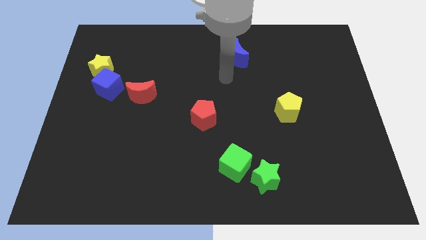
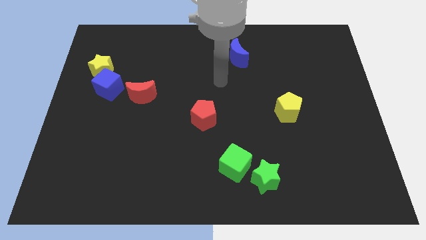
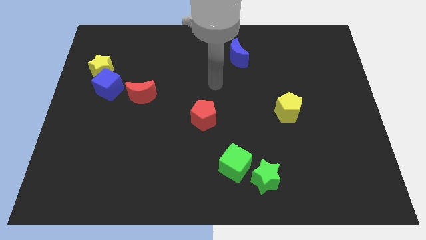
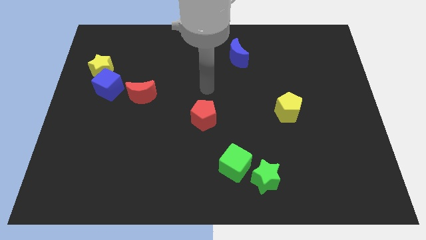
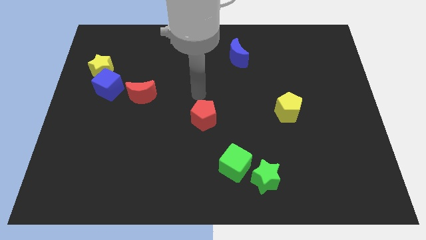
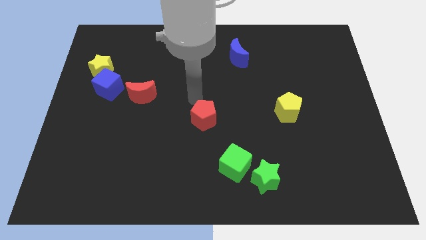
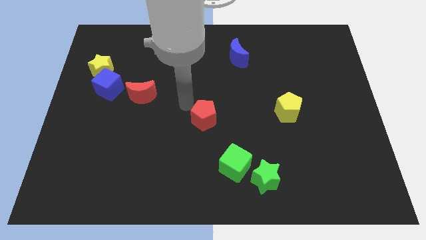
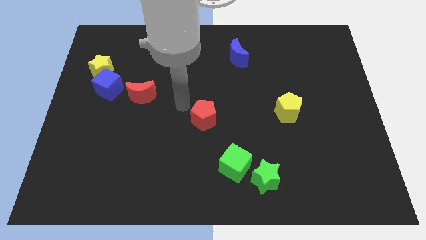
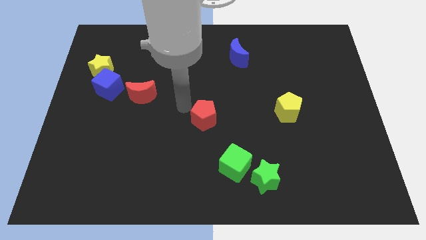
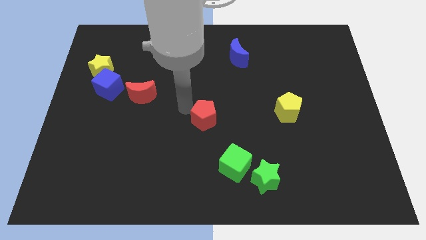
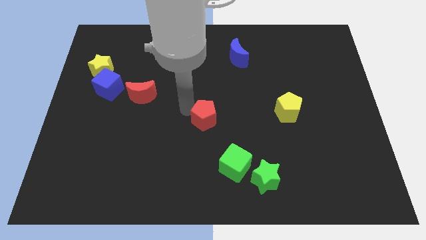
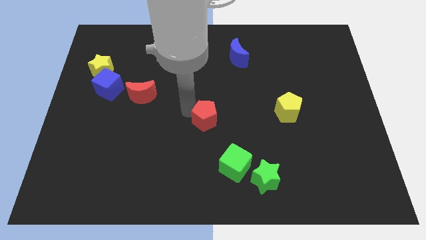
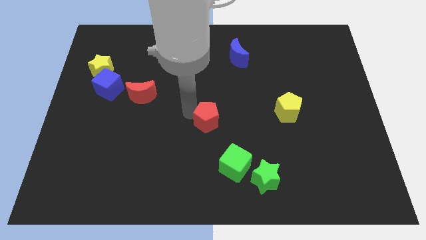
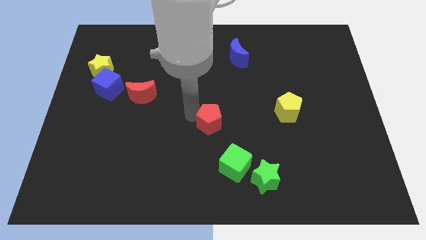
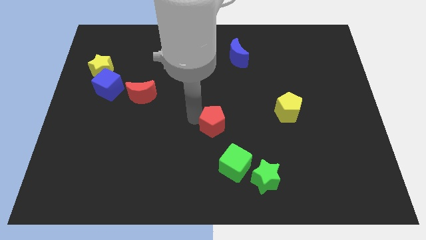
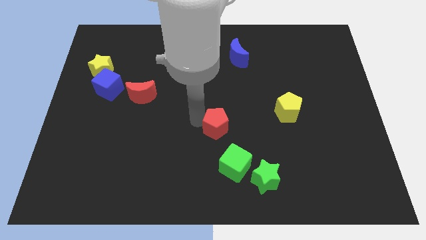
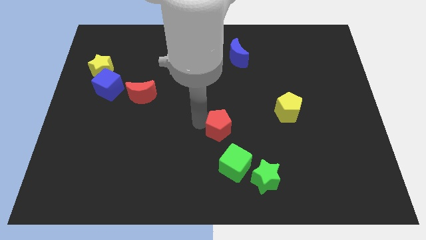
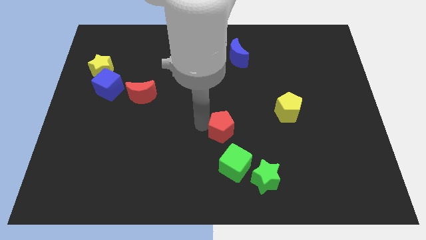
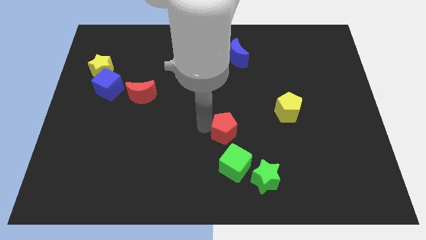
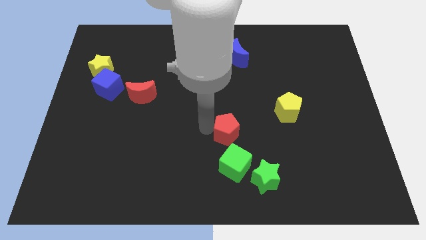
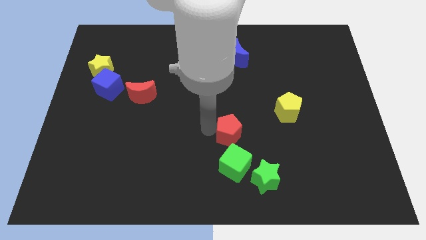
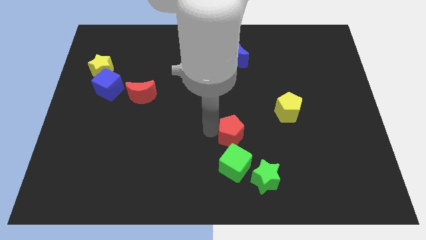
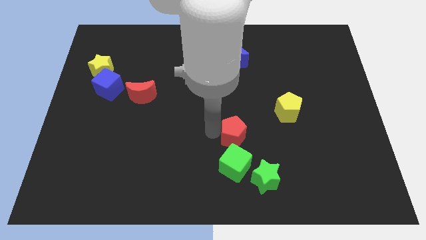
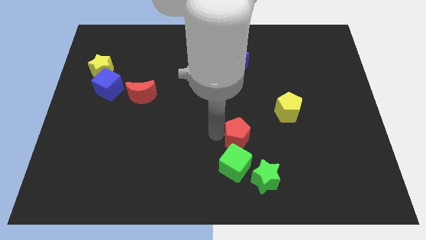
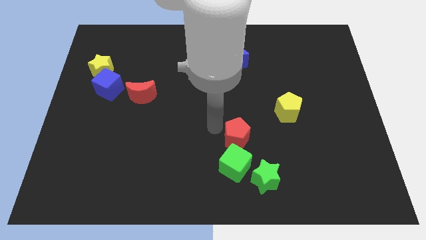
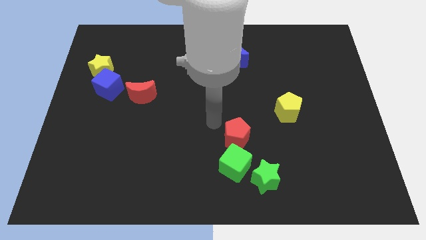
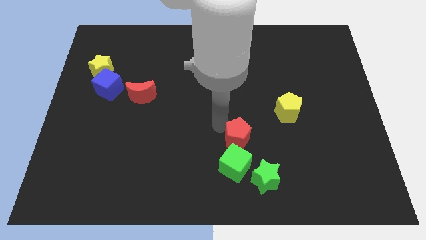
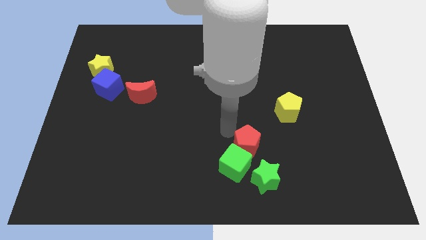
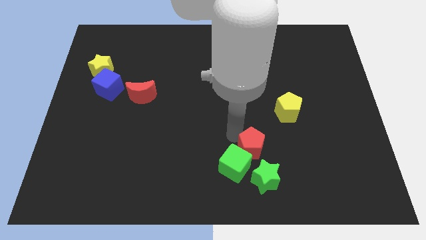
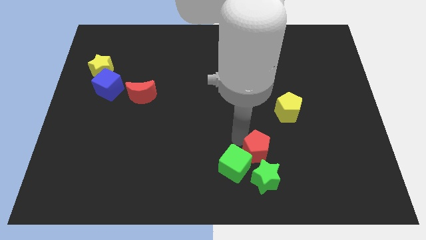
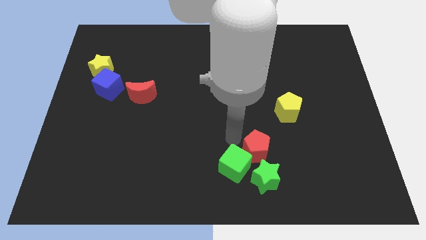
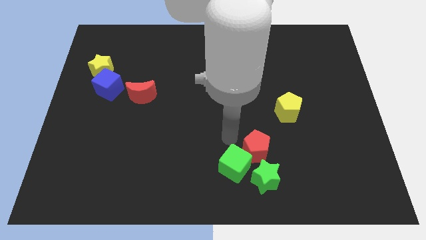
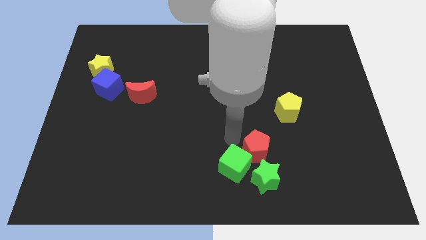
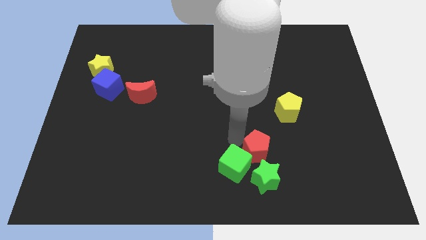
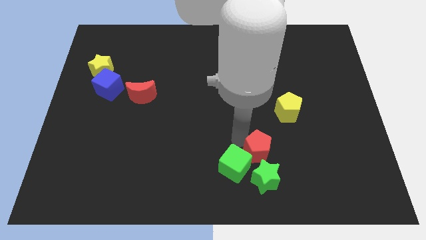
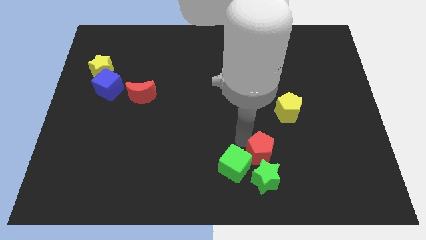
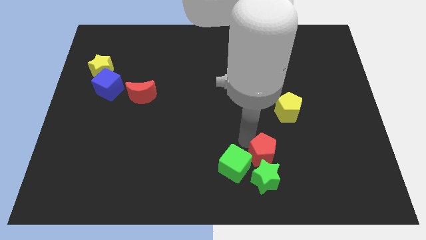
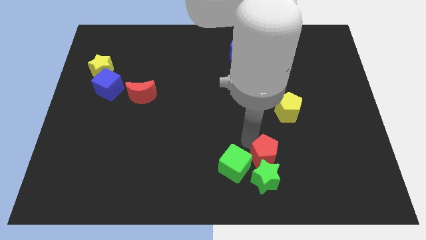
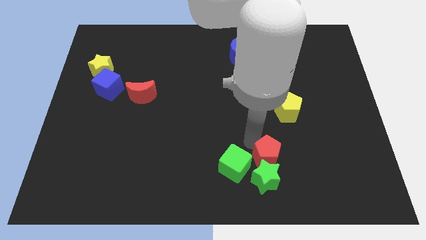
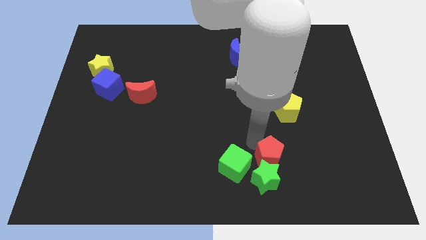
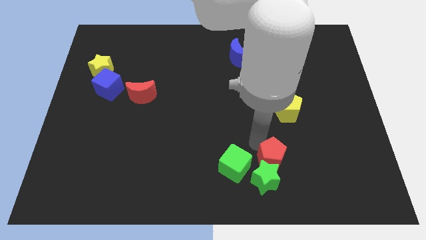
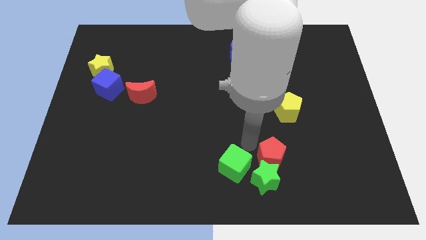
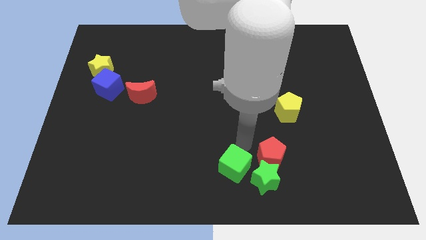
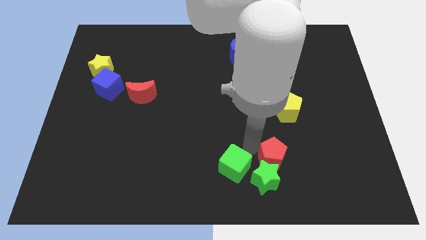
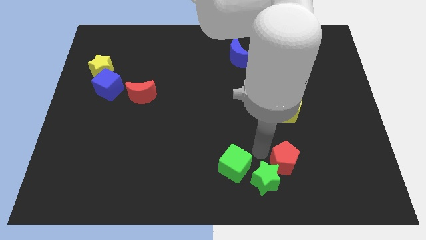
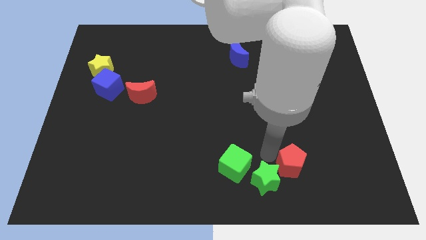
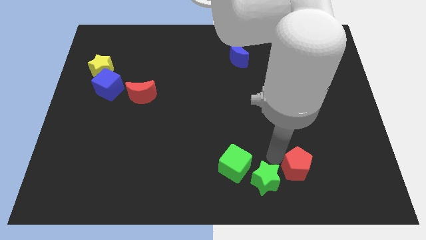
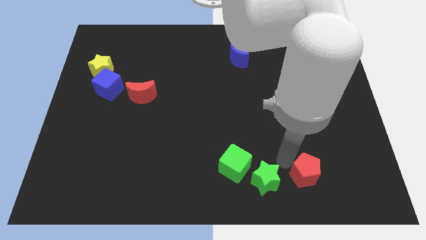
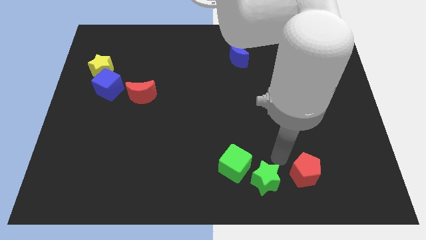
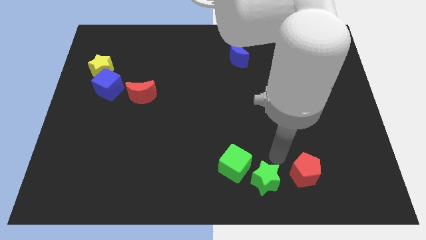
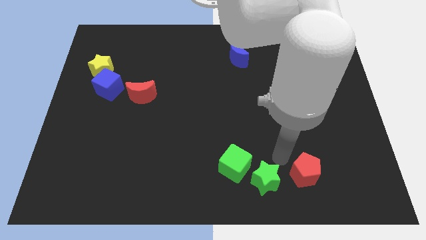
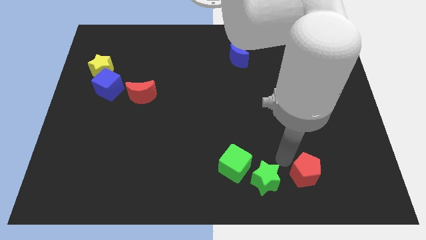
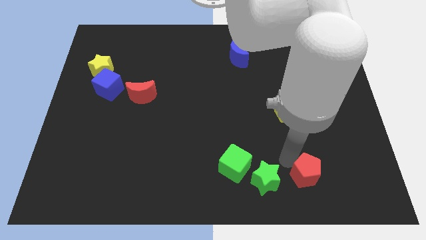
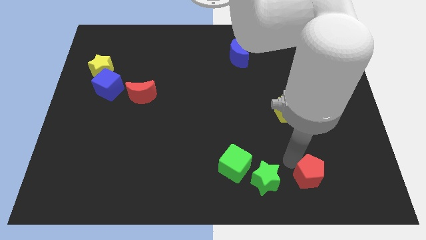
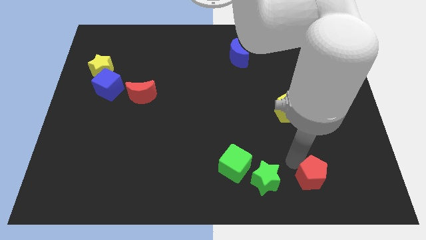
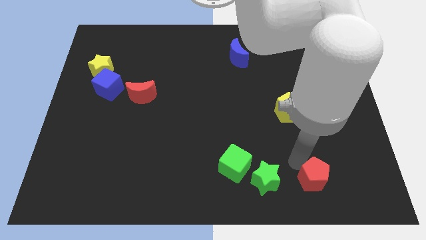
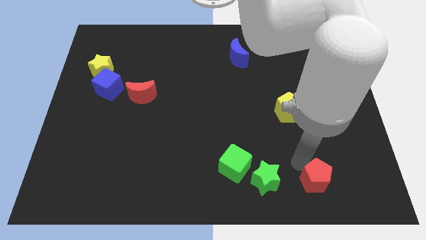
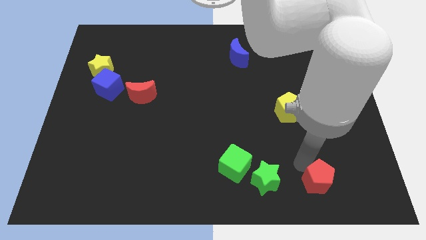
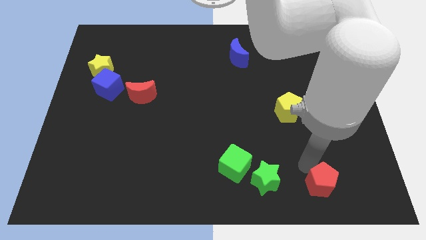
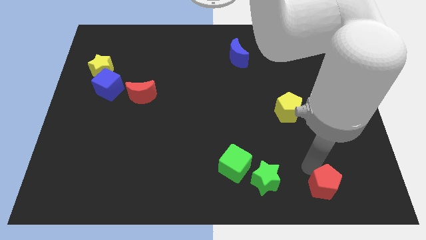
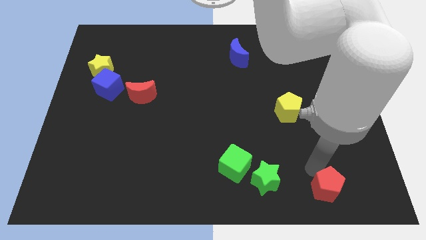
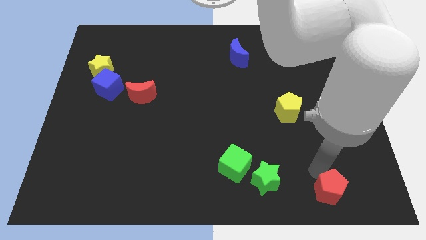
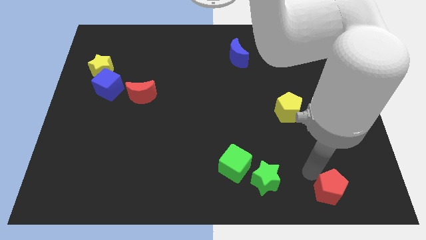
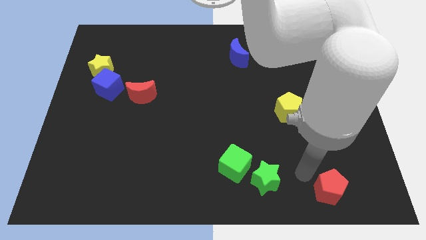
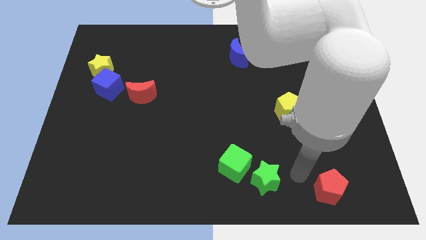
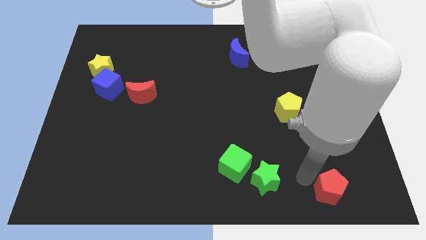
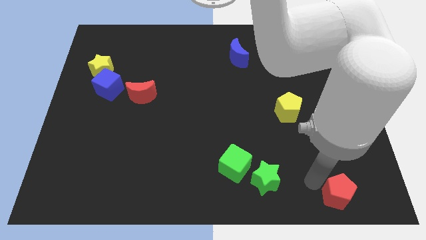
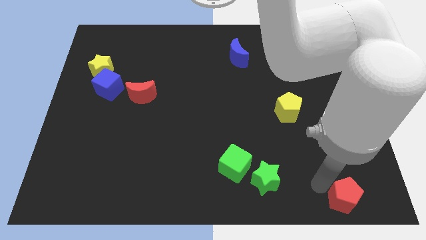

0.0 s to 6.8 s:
move the red pentagon to the bottom right corner
